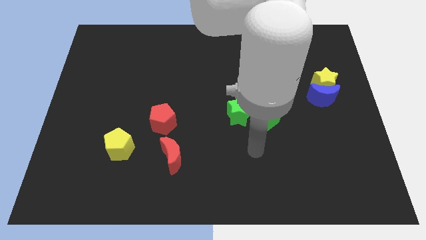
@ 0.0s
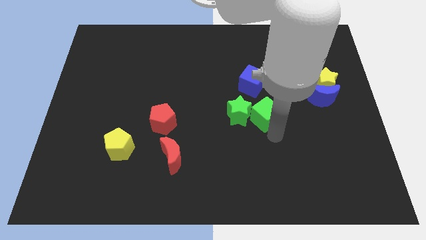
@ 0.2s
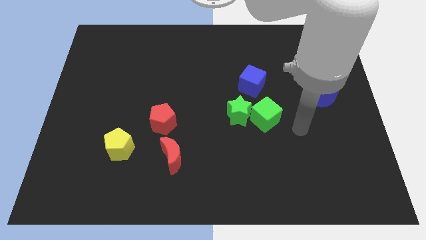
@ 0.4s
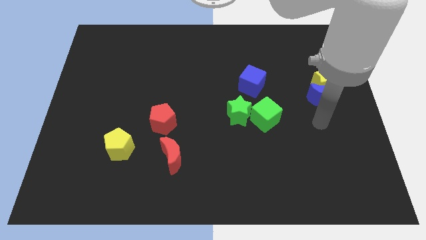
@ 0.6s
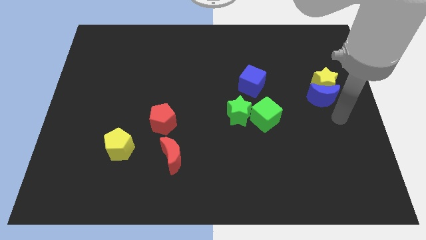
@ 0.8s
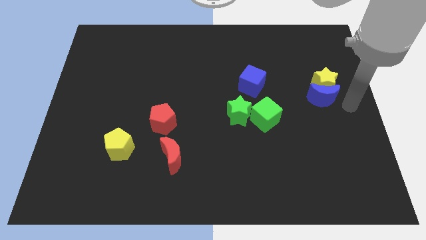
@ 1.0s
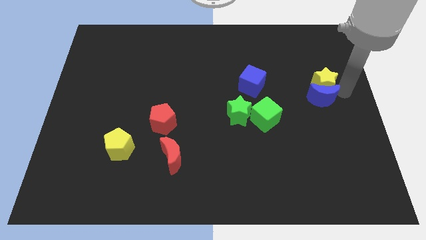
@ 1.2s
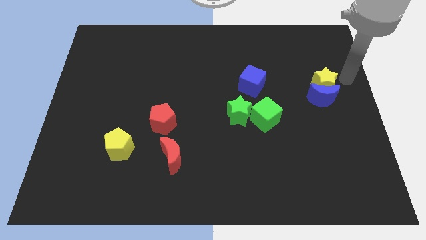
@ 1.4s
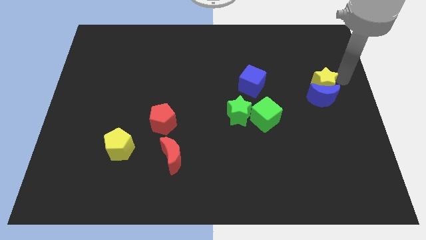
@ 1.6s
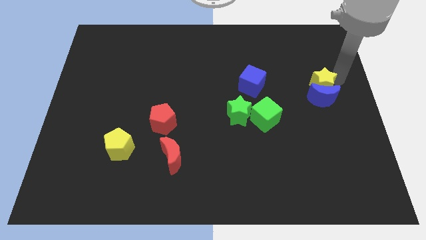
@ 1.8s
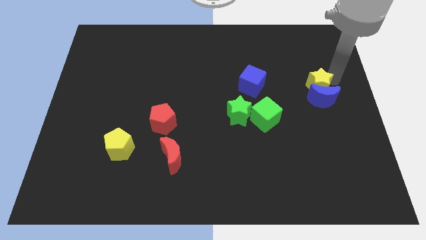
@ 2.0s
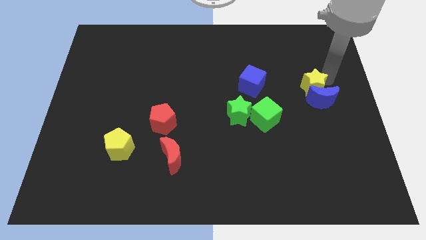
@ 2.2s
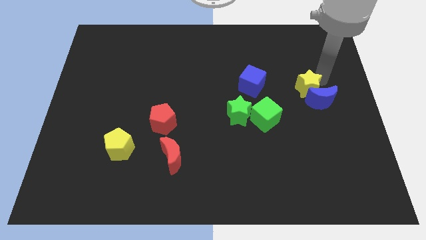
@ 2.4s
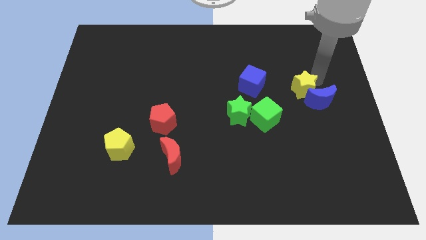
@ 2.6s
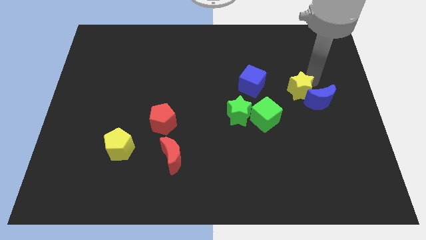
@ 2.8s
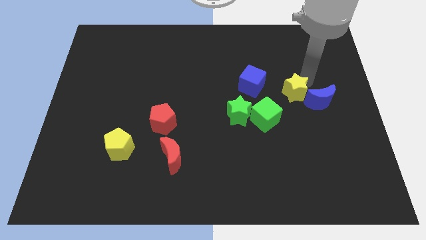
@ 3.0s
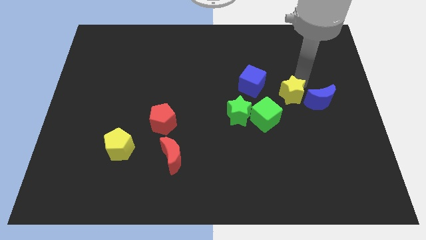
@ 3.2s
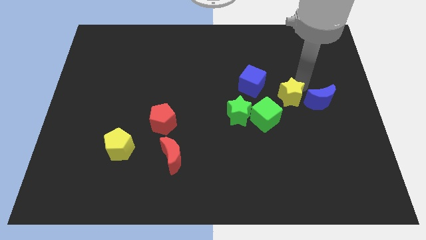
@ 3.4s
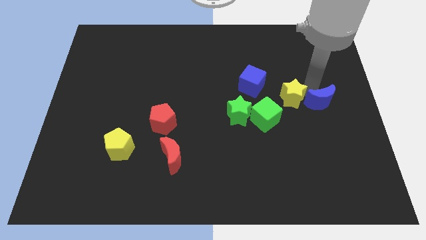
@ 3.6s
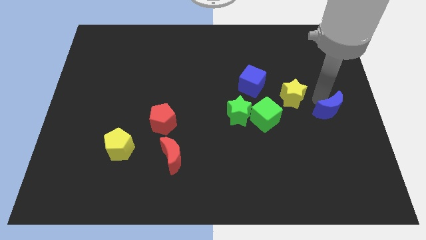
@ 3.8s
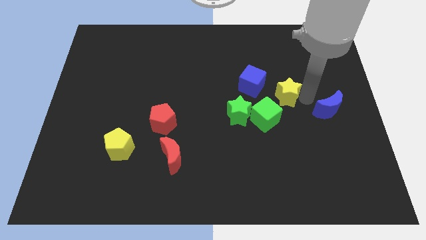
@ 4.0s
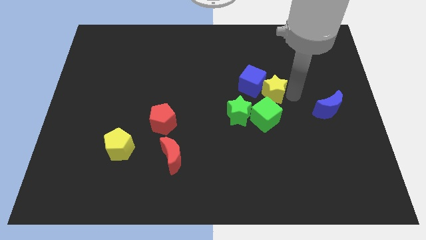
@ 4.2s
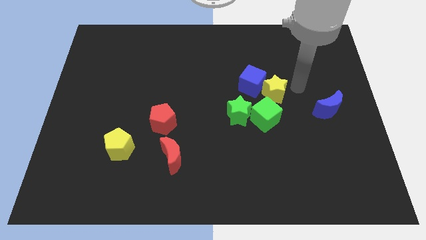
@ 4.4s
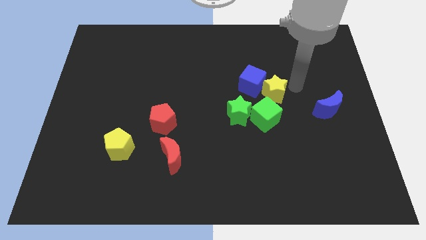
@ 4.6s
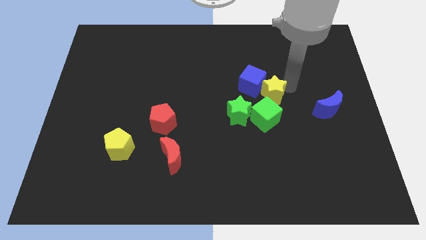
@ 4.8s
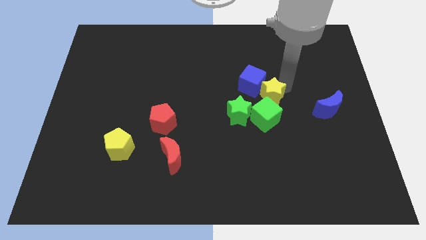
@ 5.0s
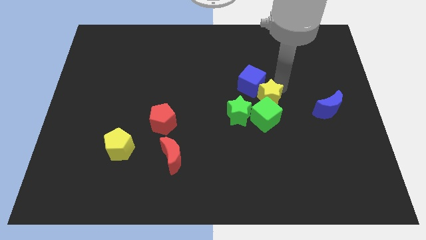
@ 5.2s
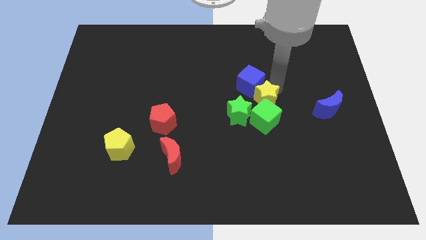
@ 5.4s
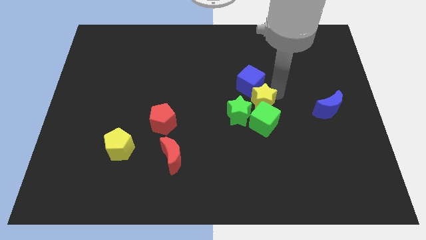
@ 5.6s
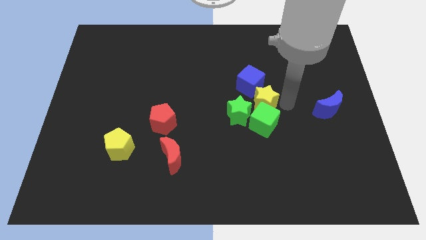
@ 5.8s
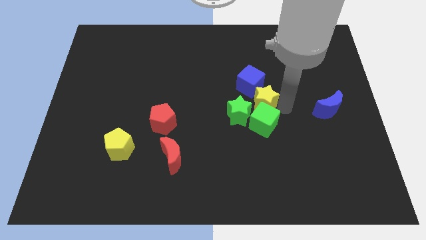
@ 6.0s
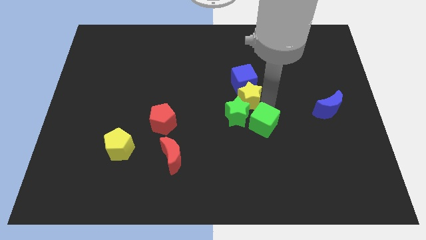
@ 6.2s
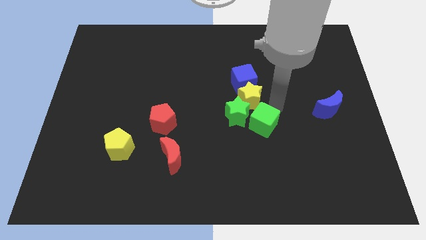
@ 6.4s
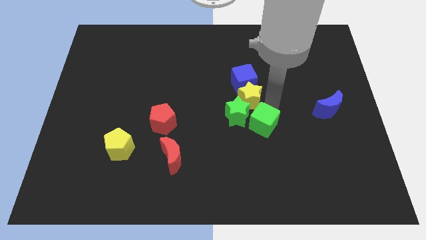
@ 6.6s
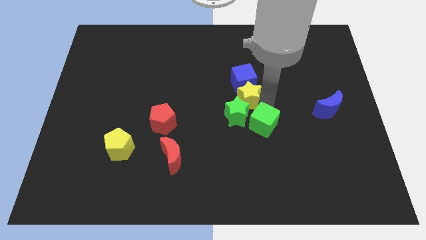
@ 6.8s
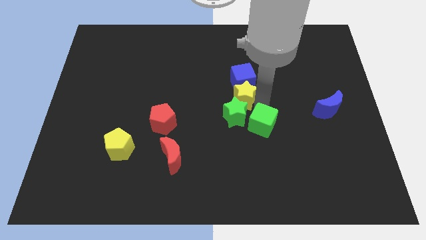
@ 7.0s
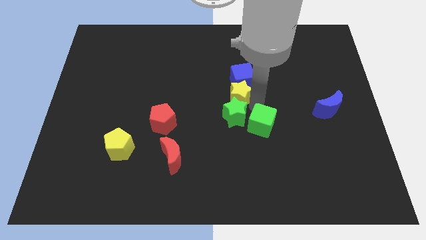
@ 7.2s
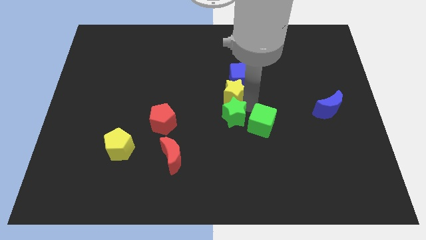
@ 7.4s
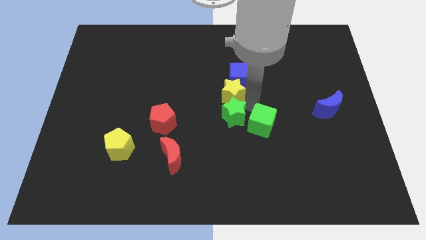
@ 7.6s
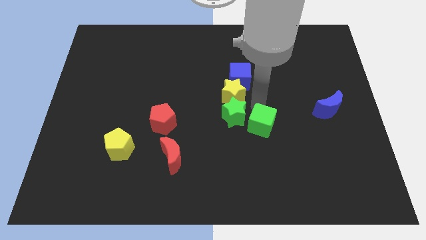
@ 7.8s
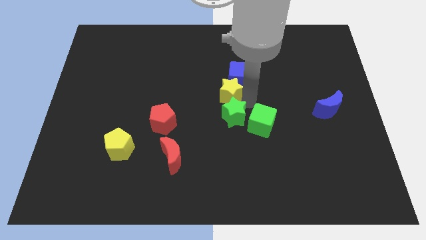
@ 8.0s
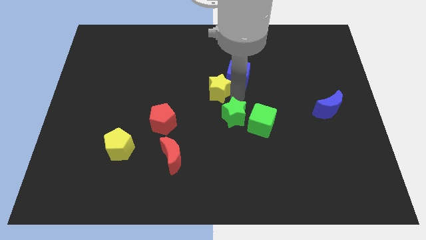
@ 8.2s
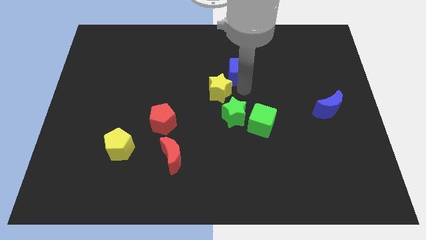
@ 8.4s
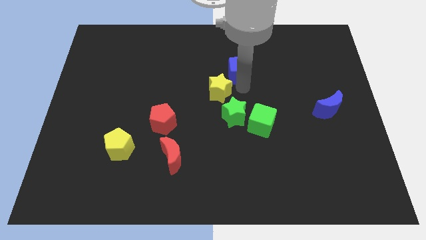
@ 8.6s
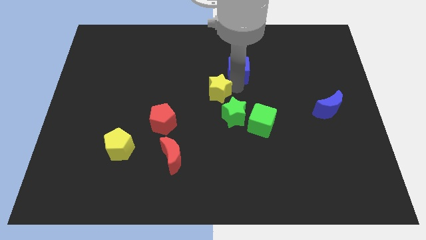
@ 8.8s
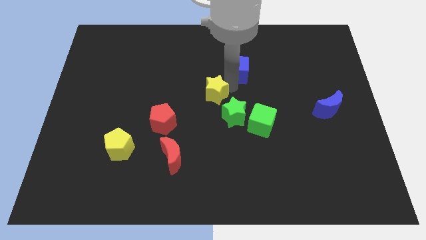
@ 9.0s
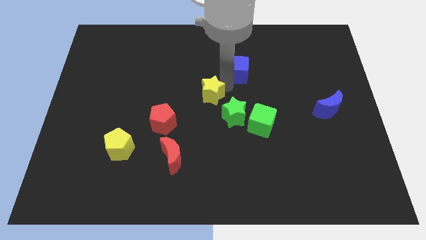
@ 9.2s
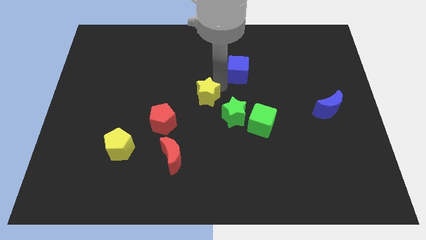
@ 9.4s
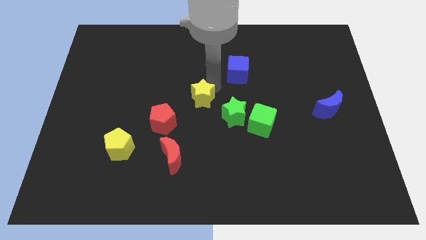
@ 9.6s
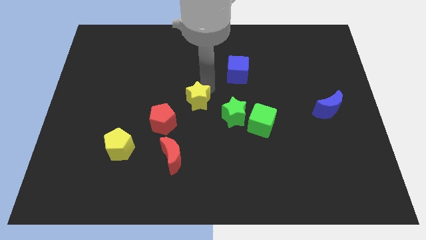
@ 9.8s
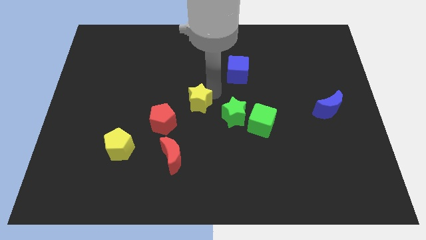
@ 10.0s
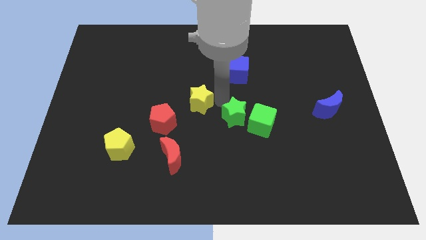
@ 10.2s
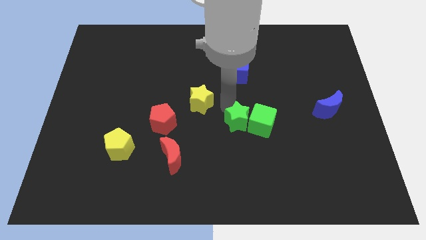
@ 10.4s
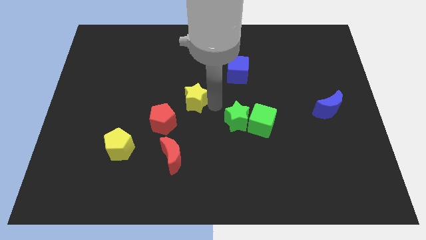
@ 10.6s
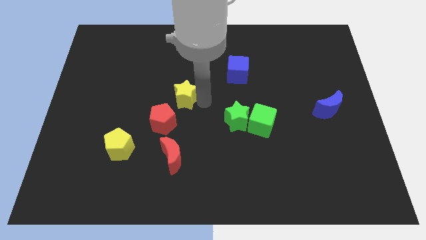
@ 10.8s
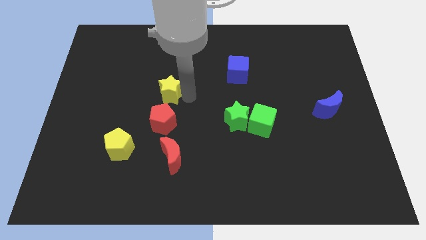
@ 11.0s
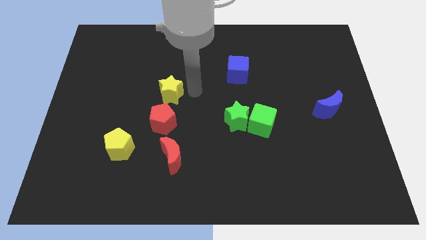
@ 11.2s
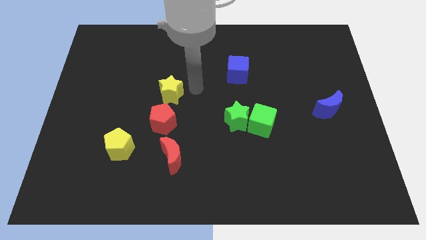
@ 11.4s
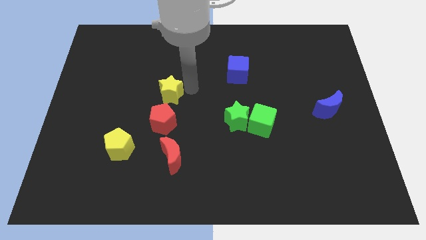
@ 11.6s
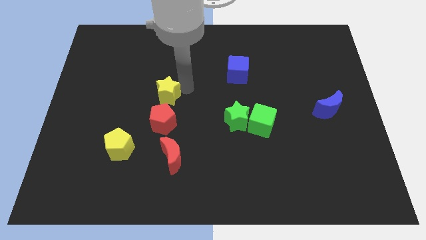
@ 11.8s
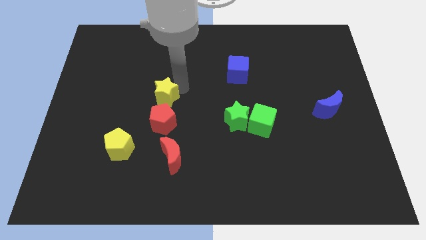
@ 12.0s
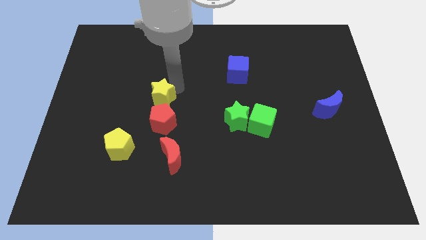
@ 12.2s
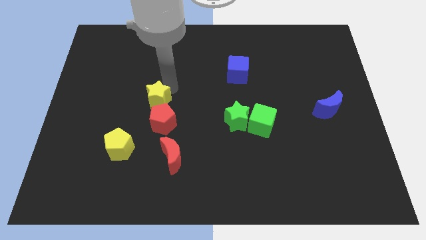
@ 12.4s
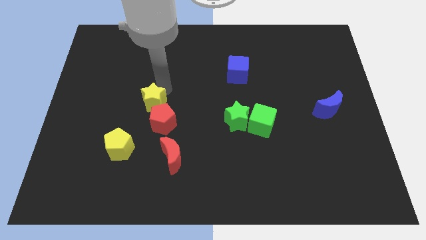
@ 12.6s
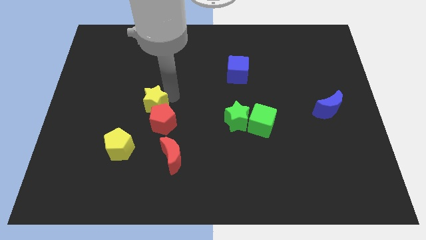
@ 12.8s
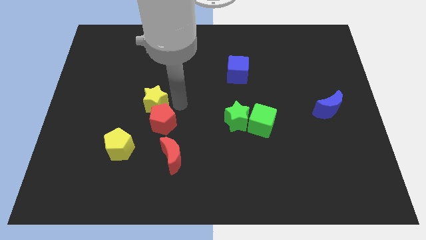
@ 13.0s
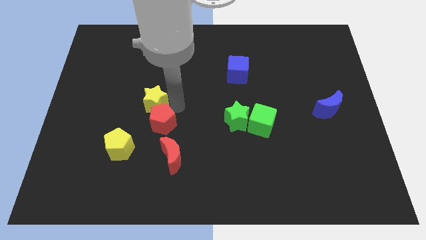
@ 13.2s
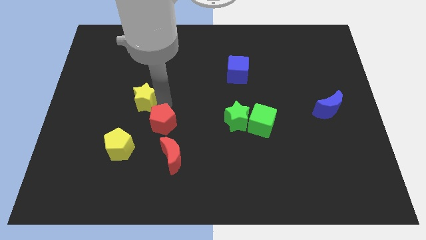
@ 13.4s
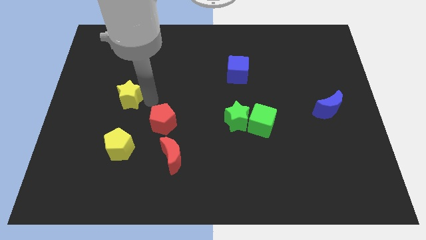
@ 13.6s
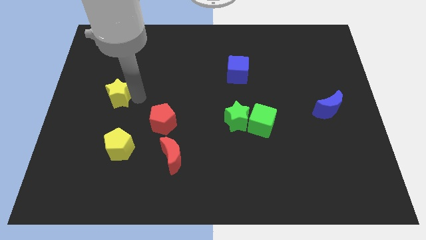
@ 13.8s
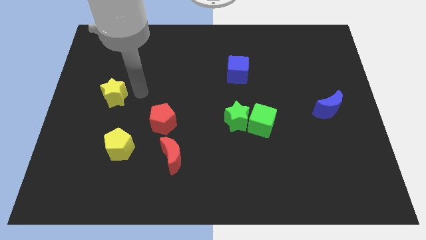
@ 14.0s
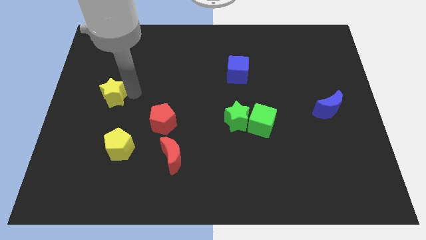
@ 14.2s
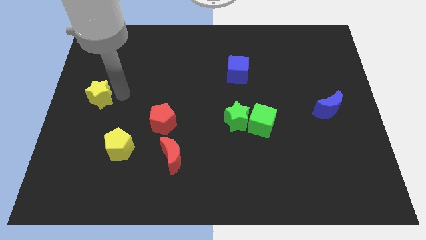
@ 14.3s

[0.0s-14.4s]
slide the yellow star to the left side of the board
